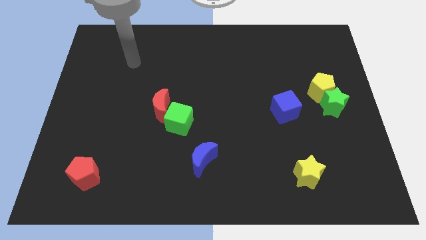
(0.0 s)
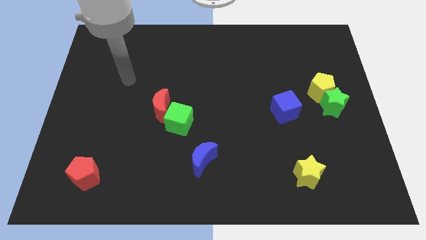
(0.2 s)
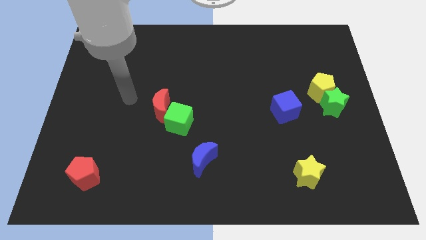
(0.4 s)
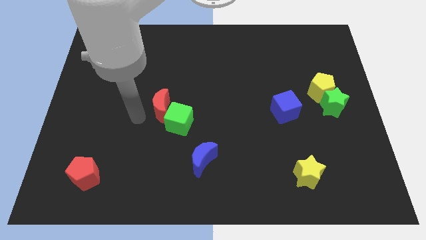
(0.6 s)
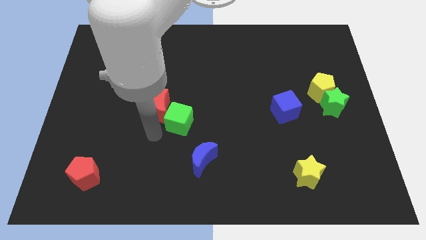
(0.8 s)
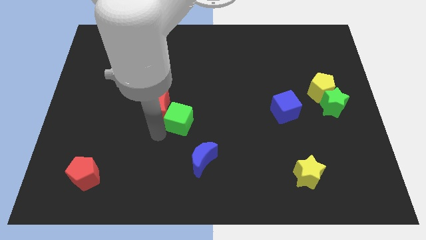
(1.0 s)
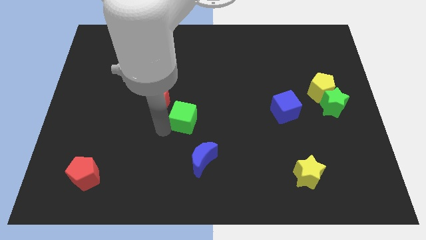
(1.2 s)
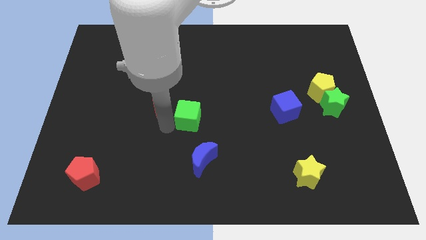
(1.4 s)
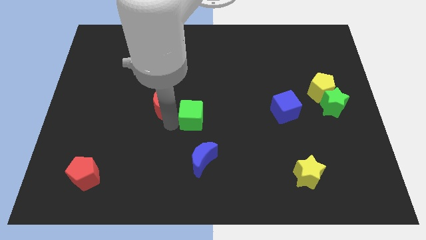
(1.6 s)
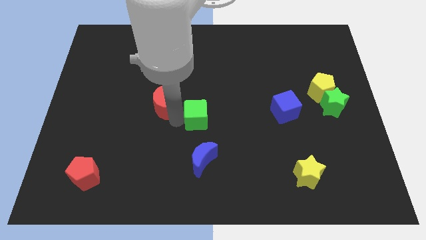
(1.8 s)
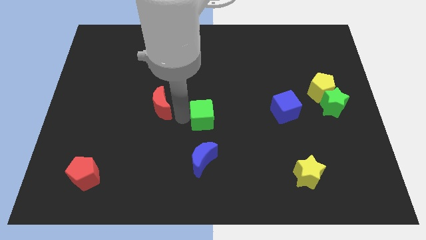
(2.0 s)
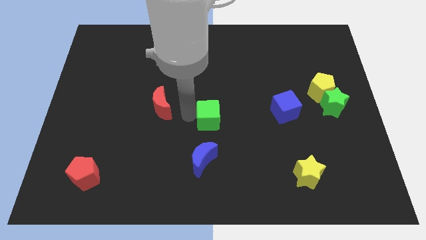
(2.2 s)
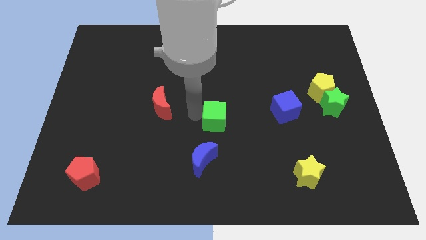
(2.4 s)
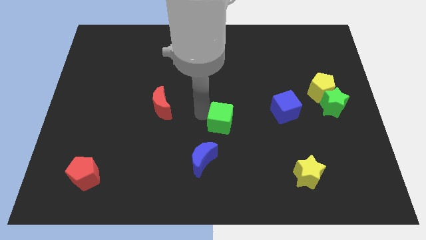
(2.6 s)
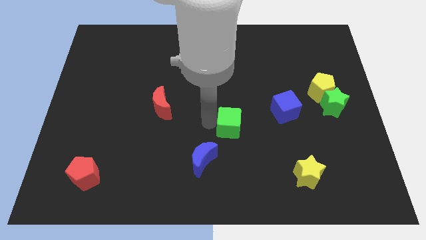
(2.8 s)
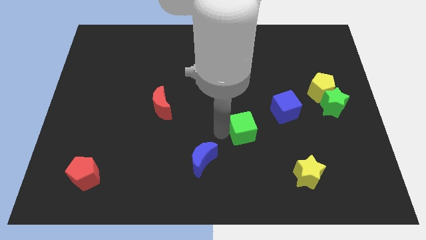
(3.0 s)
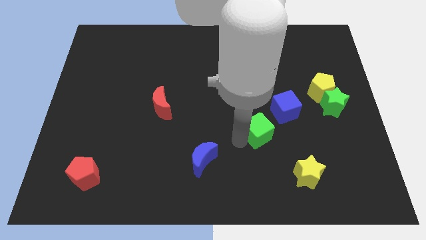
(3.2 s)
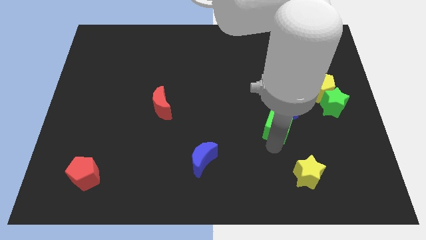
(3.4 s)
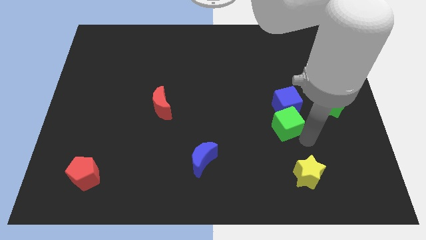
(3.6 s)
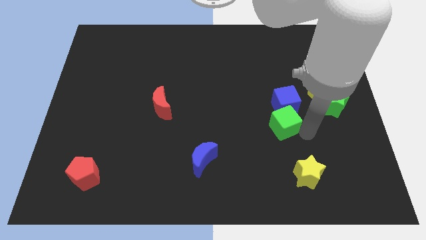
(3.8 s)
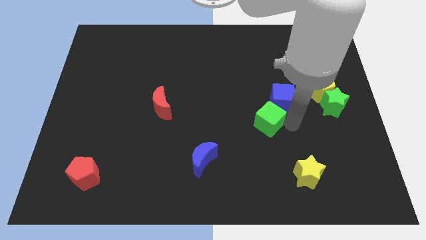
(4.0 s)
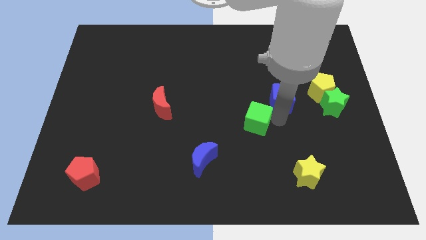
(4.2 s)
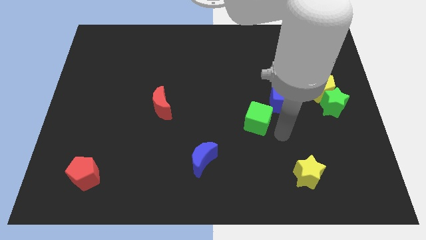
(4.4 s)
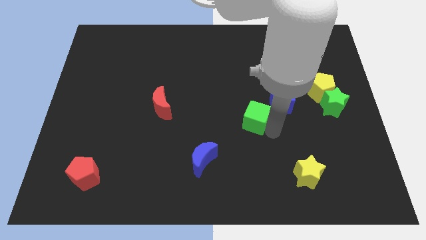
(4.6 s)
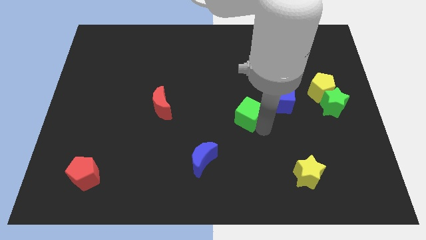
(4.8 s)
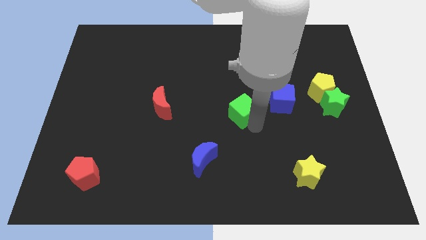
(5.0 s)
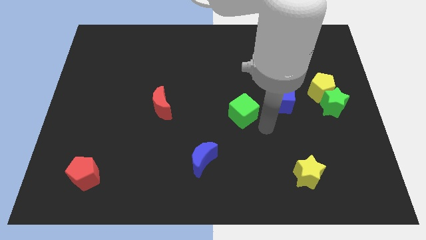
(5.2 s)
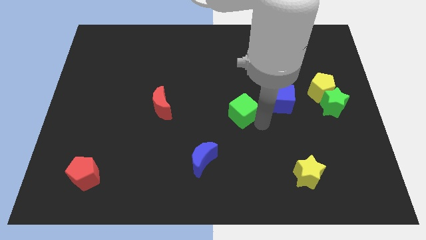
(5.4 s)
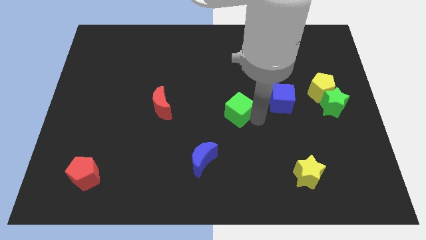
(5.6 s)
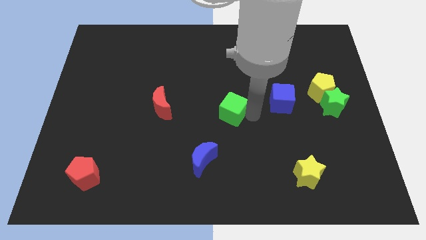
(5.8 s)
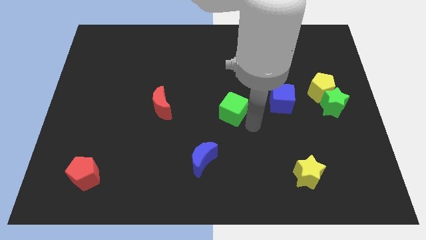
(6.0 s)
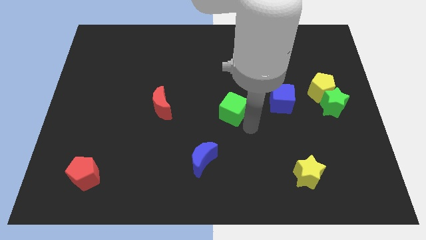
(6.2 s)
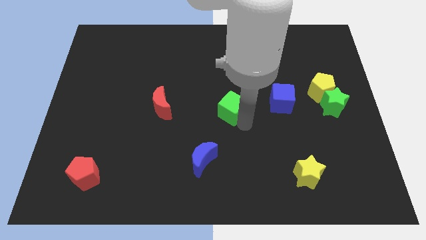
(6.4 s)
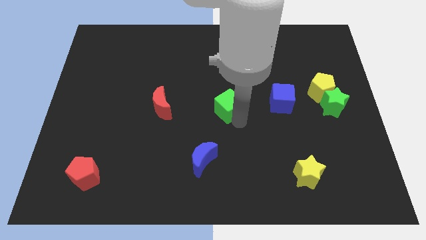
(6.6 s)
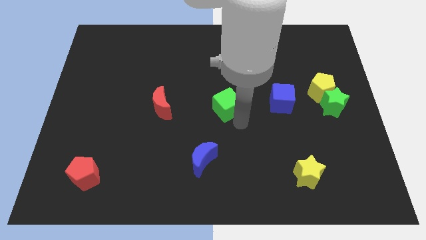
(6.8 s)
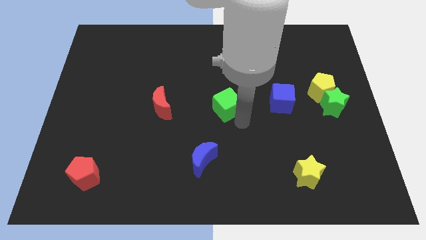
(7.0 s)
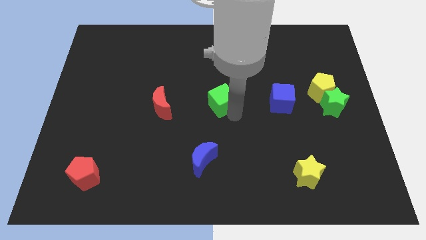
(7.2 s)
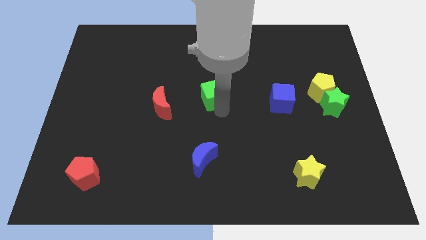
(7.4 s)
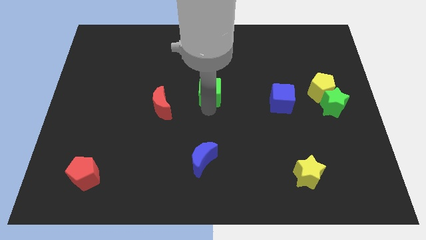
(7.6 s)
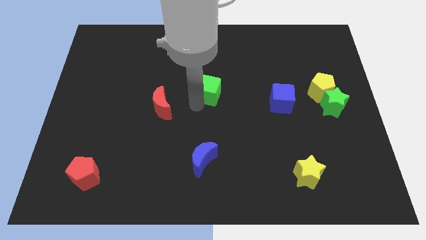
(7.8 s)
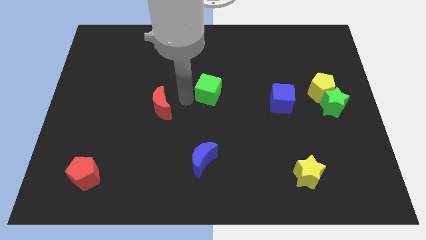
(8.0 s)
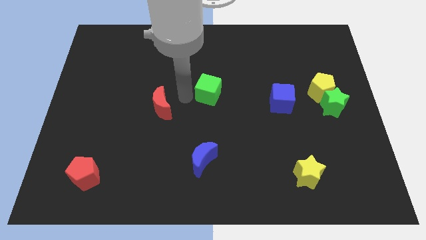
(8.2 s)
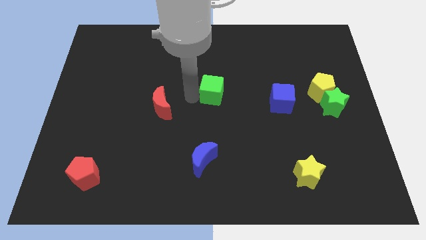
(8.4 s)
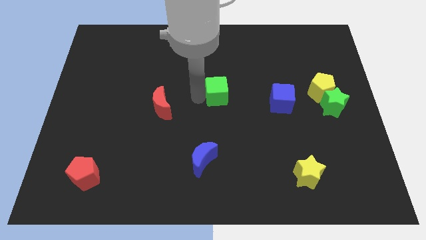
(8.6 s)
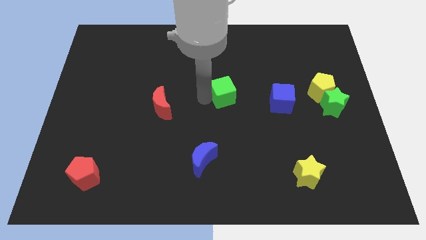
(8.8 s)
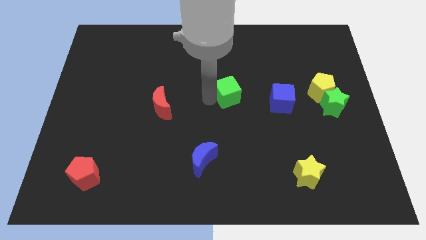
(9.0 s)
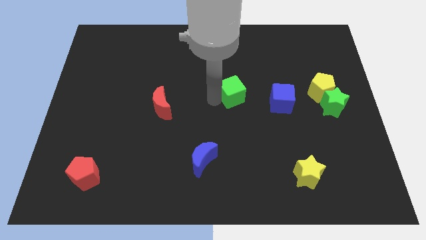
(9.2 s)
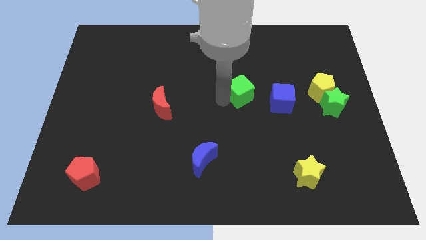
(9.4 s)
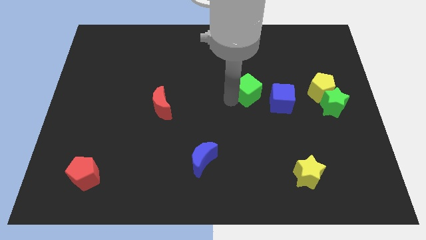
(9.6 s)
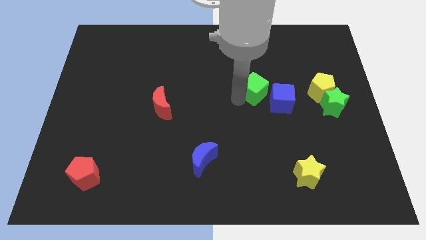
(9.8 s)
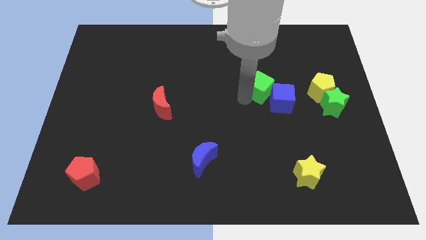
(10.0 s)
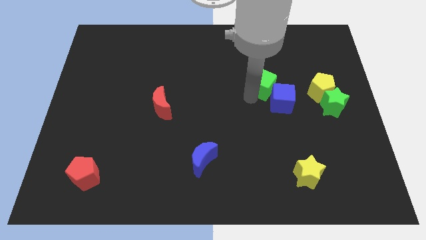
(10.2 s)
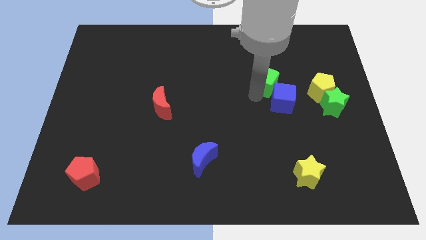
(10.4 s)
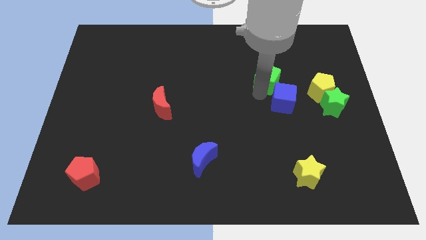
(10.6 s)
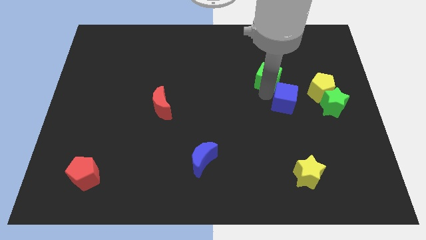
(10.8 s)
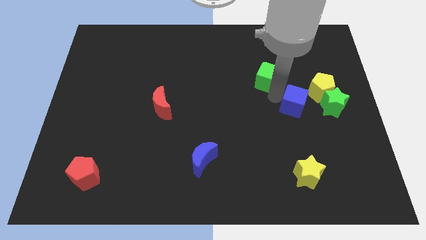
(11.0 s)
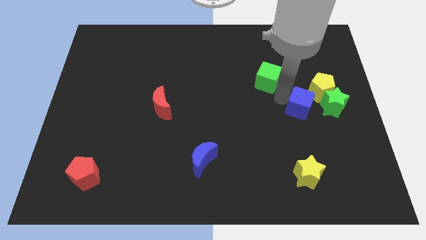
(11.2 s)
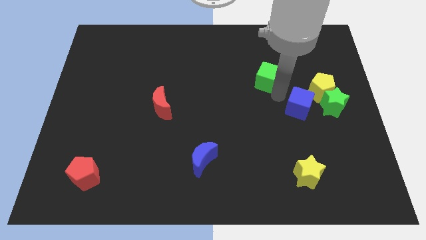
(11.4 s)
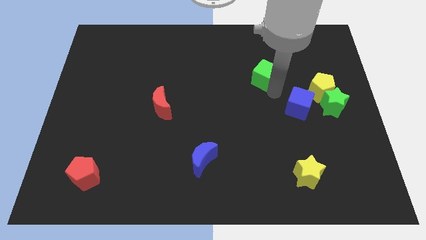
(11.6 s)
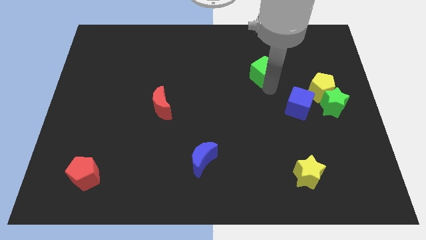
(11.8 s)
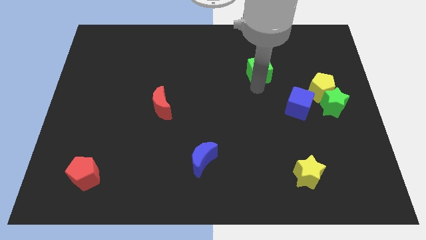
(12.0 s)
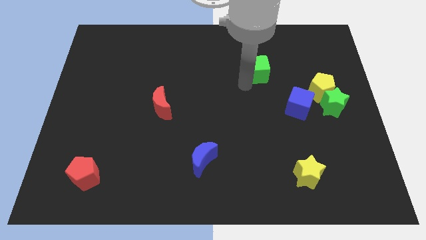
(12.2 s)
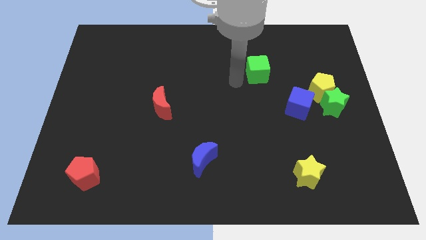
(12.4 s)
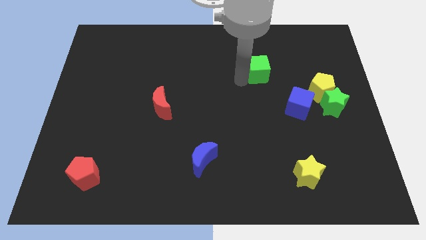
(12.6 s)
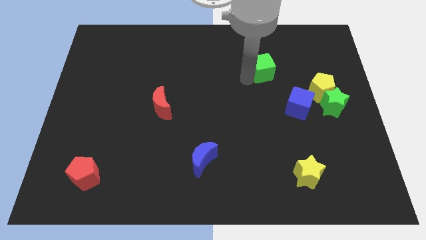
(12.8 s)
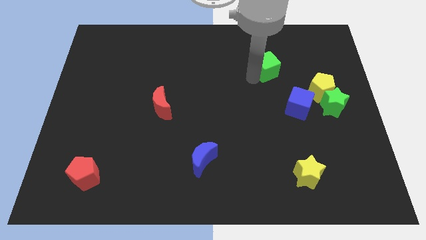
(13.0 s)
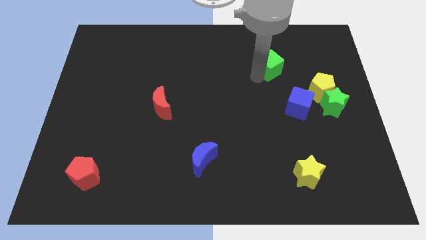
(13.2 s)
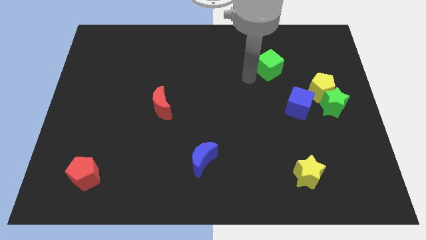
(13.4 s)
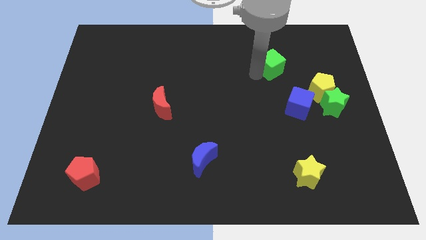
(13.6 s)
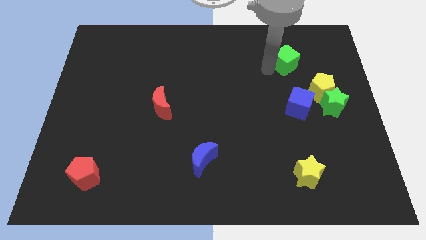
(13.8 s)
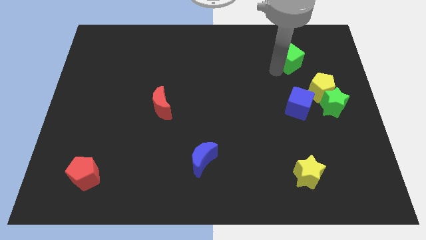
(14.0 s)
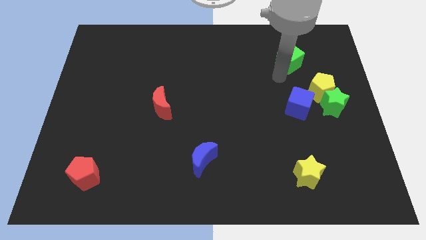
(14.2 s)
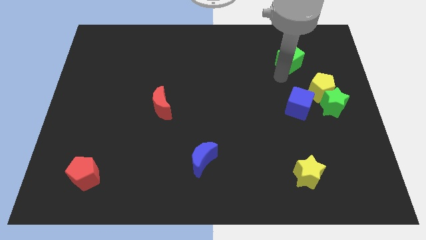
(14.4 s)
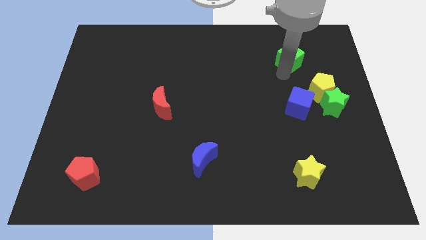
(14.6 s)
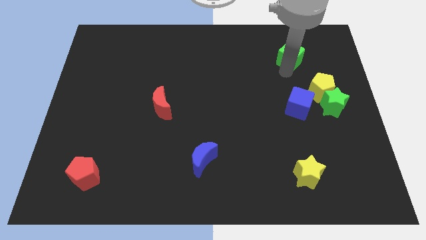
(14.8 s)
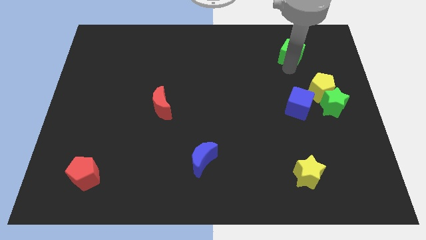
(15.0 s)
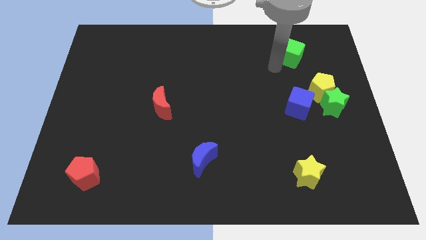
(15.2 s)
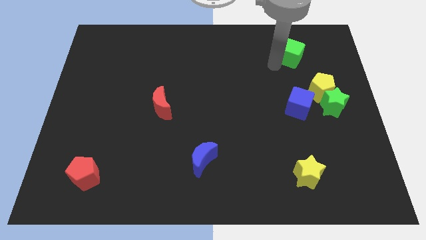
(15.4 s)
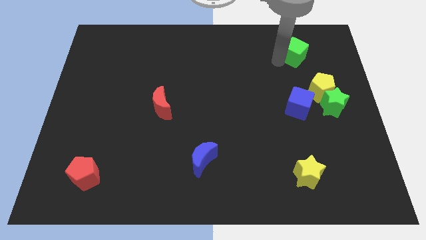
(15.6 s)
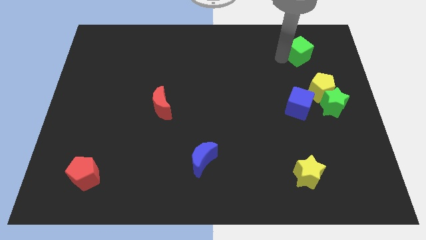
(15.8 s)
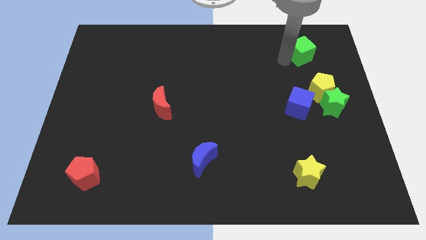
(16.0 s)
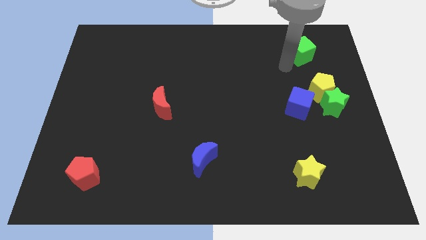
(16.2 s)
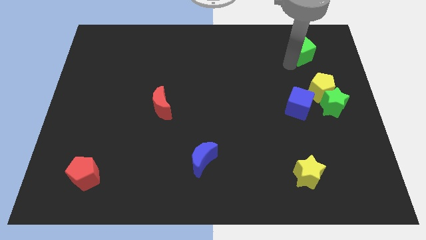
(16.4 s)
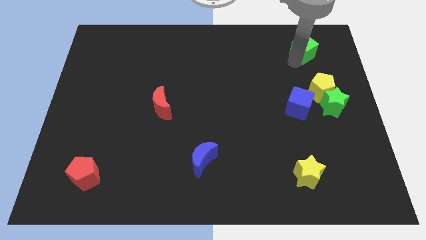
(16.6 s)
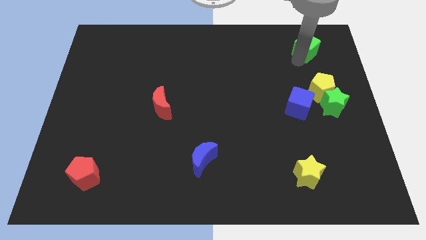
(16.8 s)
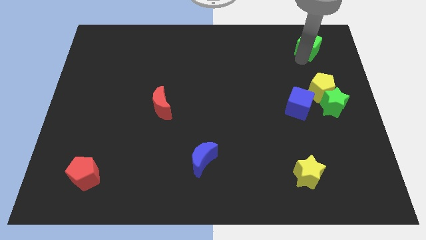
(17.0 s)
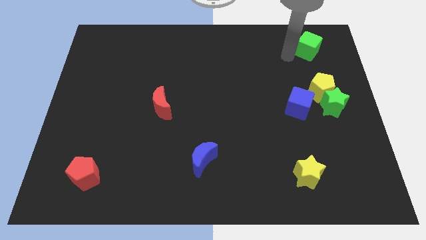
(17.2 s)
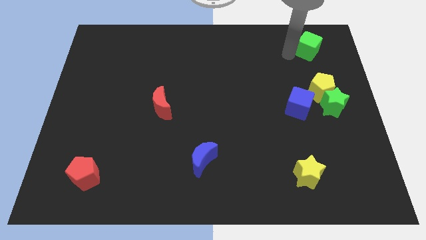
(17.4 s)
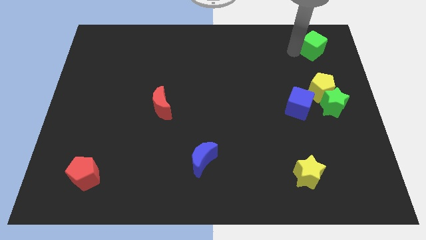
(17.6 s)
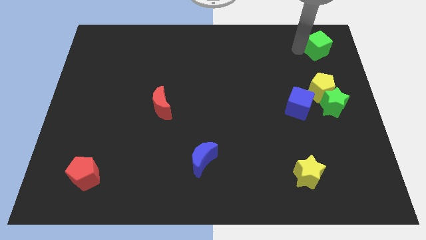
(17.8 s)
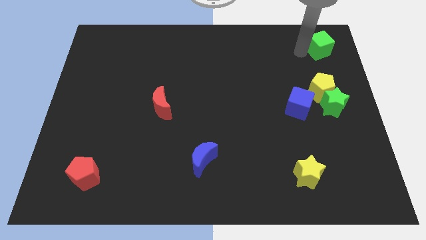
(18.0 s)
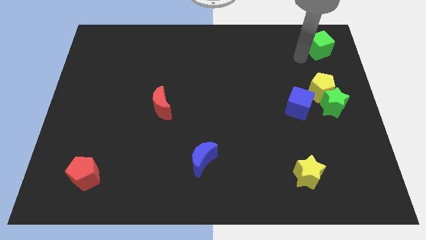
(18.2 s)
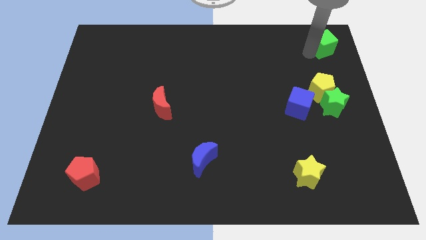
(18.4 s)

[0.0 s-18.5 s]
slide the green cube to the top right corner
